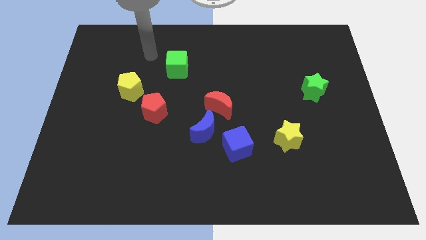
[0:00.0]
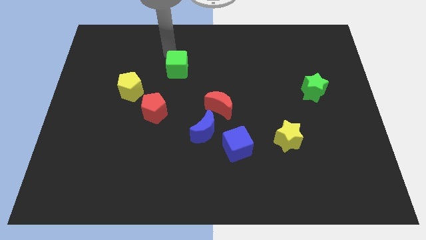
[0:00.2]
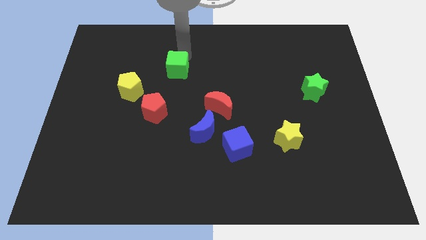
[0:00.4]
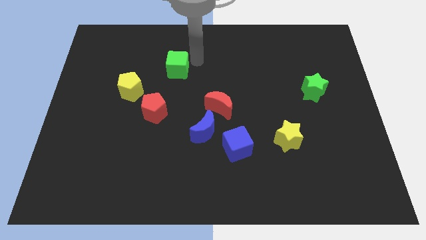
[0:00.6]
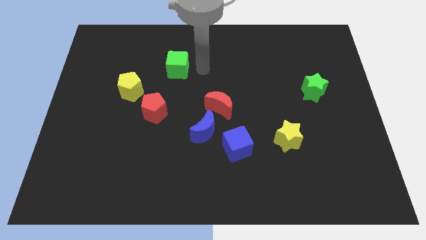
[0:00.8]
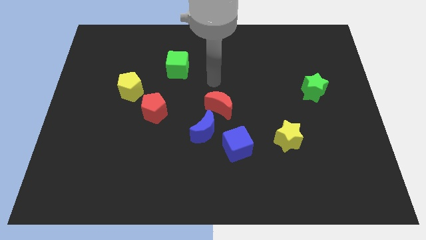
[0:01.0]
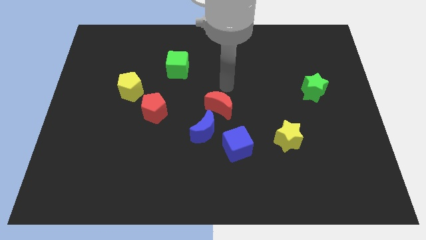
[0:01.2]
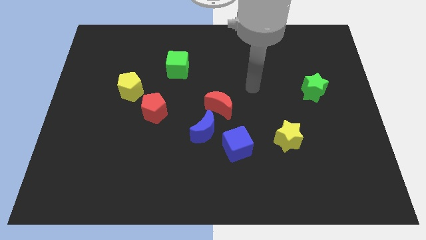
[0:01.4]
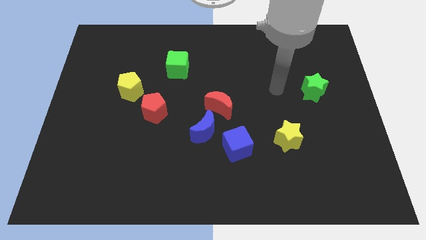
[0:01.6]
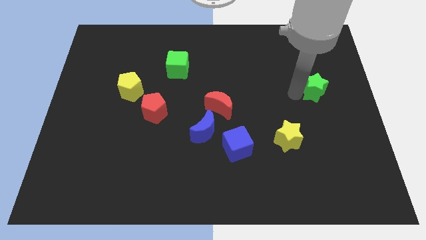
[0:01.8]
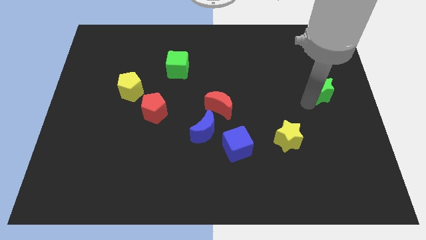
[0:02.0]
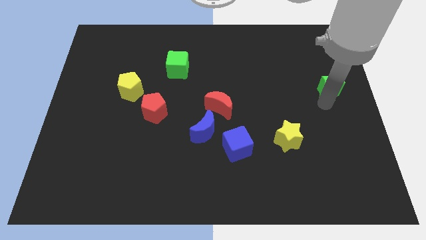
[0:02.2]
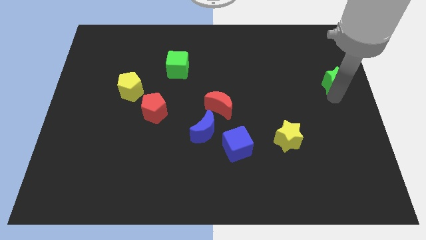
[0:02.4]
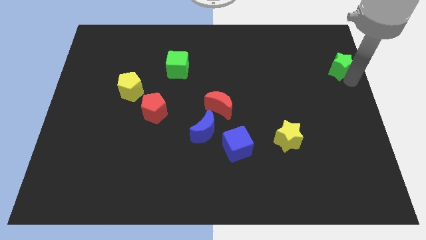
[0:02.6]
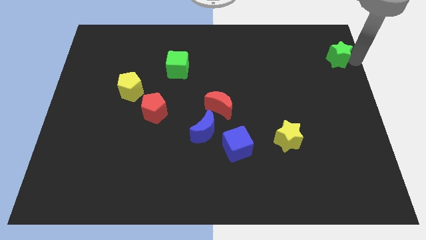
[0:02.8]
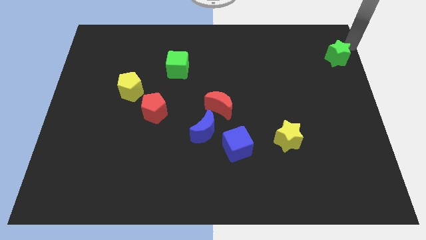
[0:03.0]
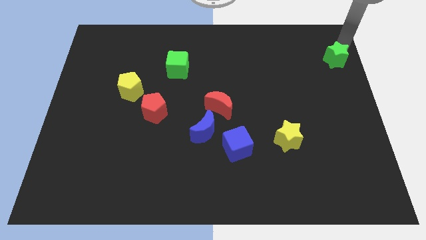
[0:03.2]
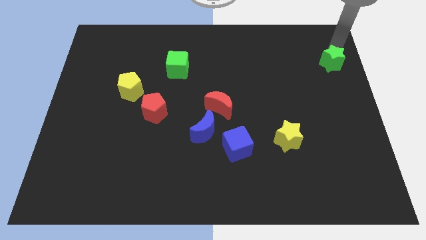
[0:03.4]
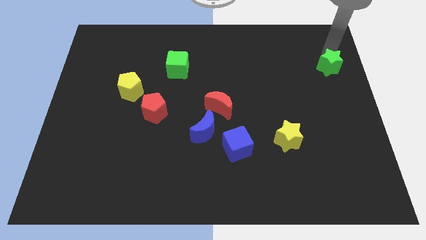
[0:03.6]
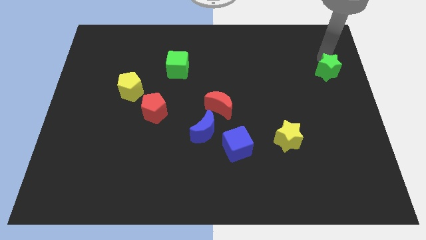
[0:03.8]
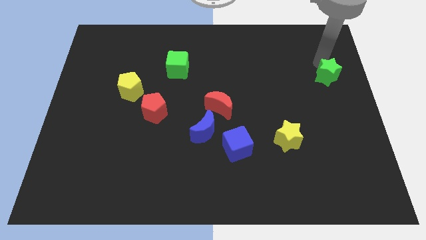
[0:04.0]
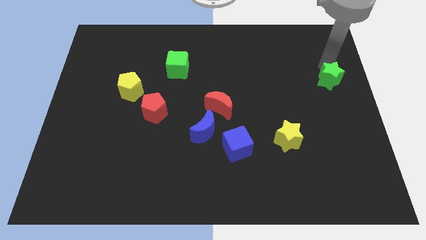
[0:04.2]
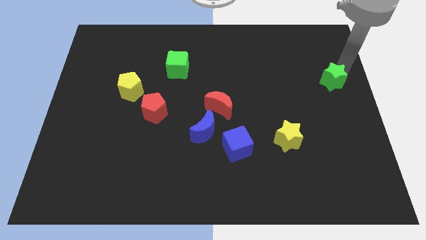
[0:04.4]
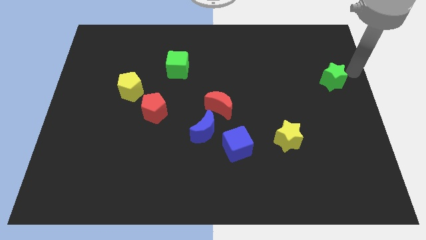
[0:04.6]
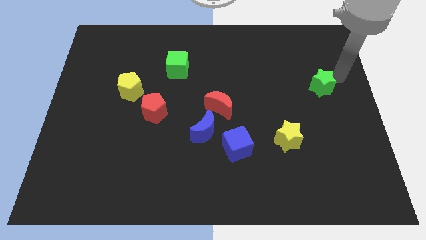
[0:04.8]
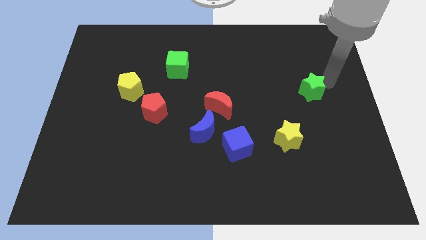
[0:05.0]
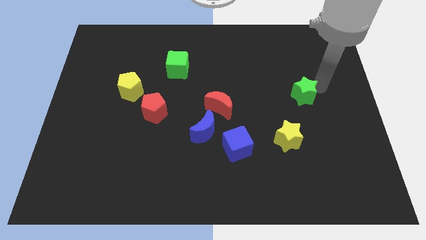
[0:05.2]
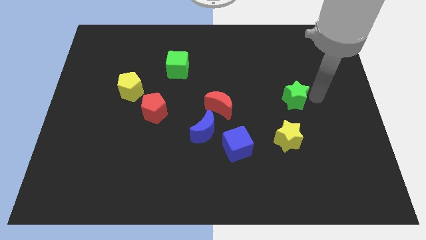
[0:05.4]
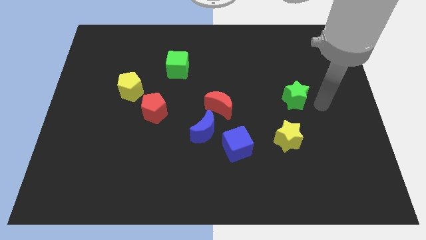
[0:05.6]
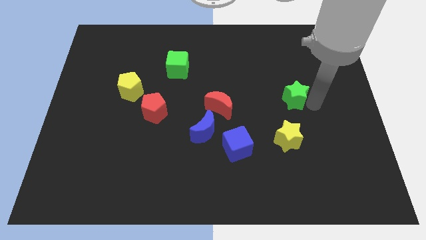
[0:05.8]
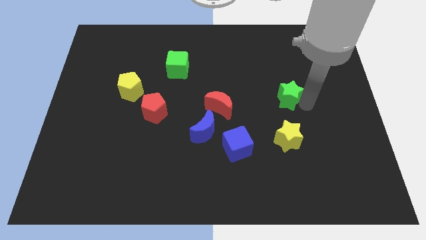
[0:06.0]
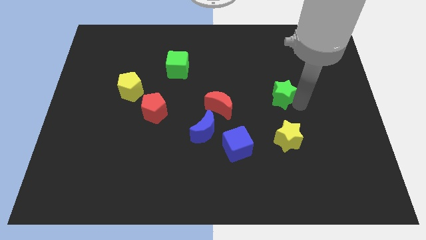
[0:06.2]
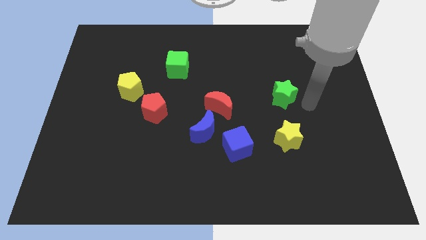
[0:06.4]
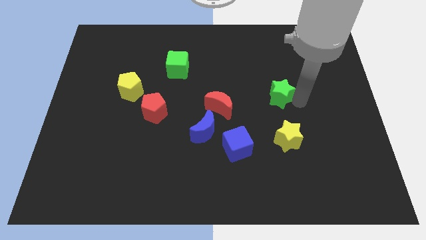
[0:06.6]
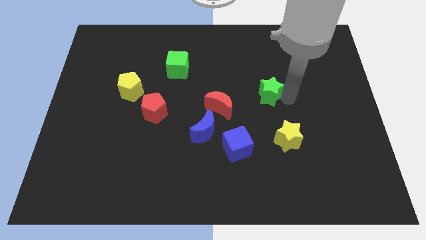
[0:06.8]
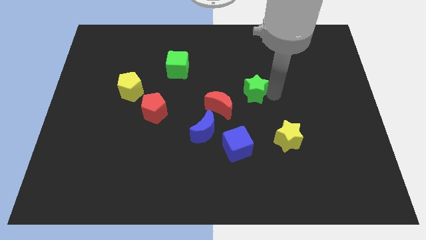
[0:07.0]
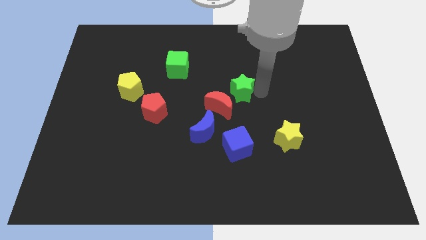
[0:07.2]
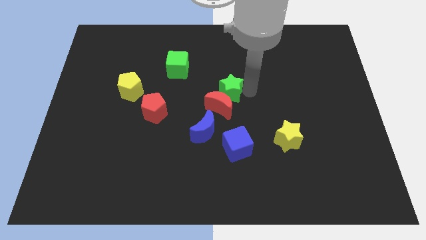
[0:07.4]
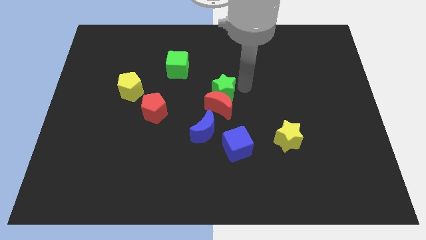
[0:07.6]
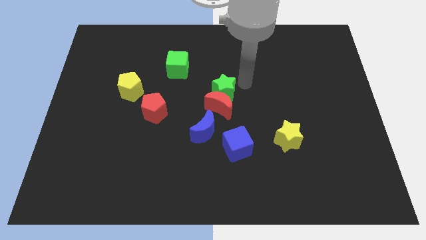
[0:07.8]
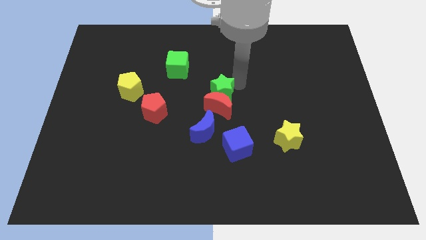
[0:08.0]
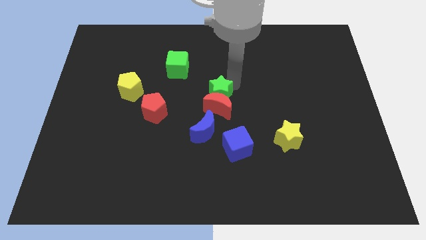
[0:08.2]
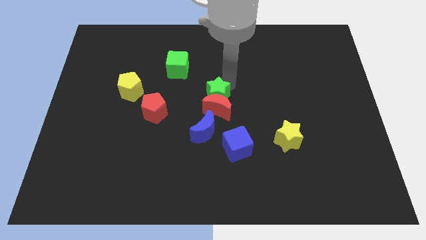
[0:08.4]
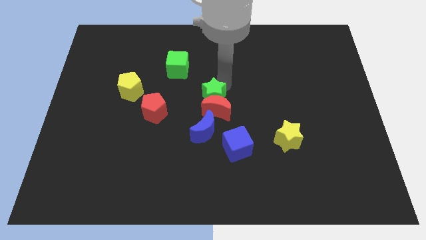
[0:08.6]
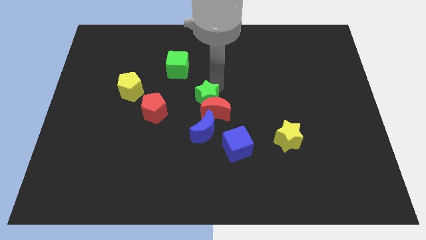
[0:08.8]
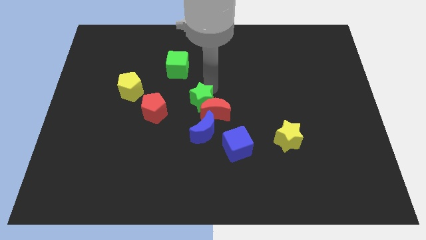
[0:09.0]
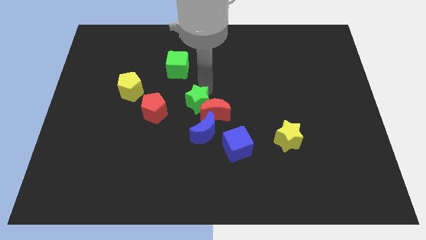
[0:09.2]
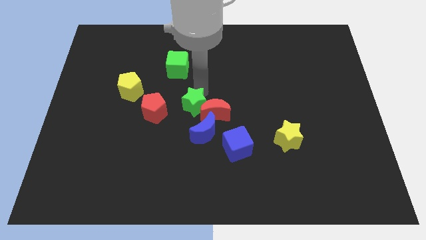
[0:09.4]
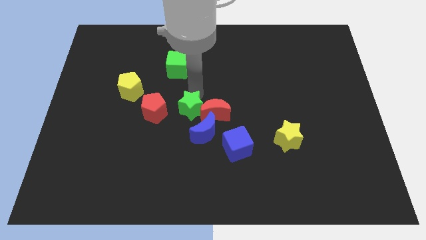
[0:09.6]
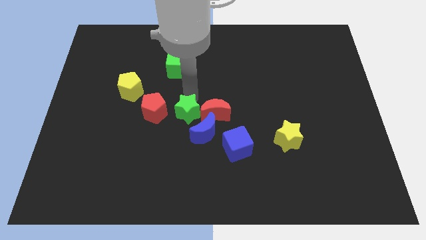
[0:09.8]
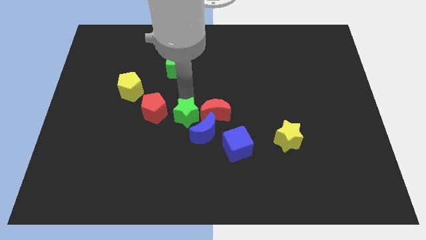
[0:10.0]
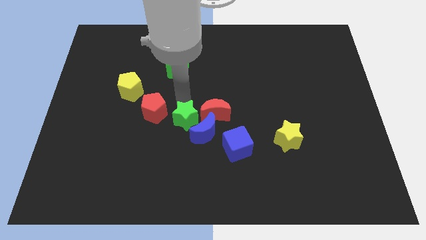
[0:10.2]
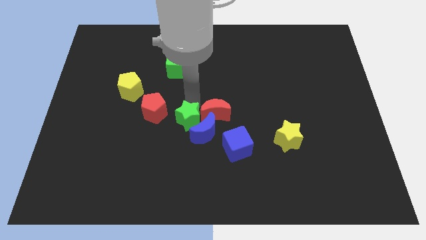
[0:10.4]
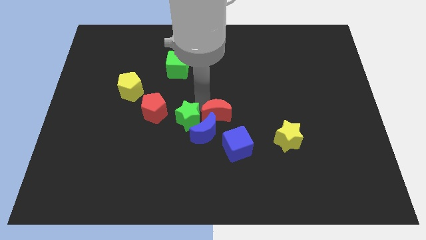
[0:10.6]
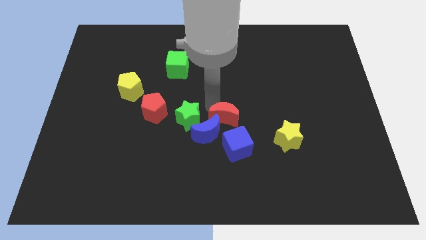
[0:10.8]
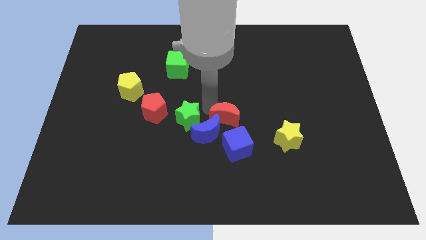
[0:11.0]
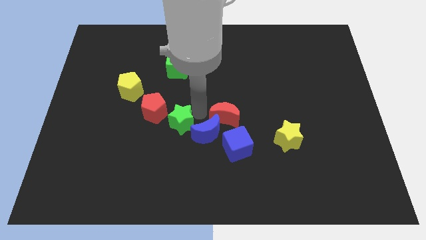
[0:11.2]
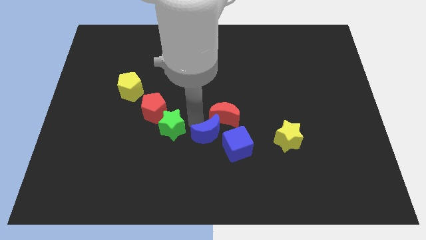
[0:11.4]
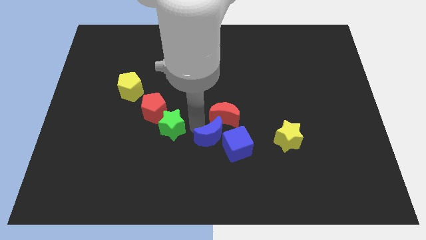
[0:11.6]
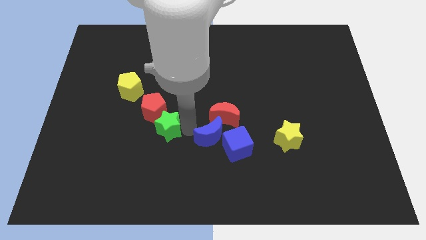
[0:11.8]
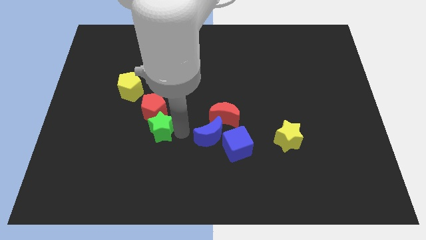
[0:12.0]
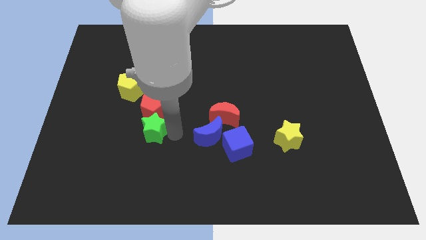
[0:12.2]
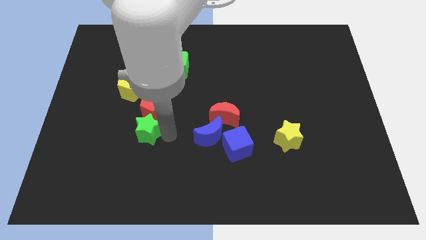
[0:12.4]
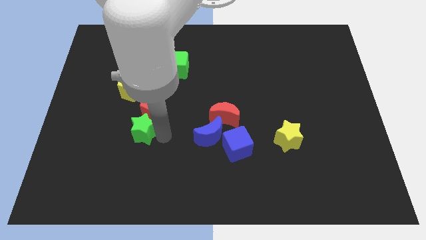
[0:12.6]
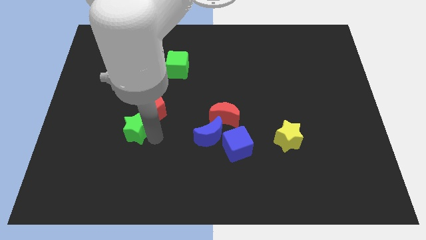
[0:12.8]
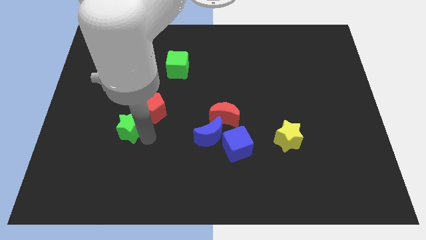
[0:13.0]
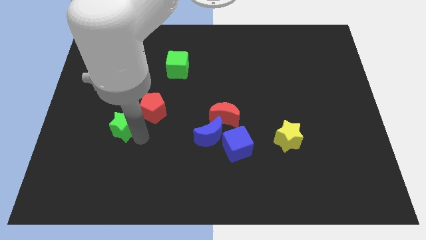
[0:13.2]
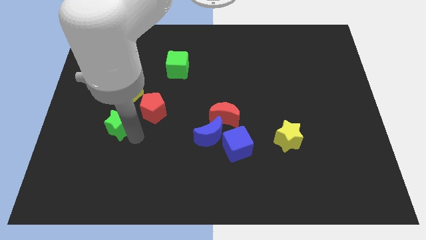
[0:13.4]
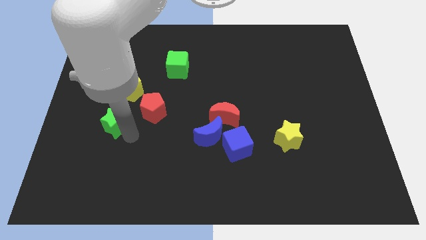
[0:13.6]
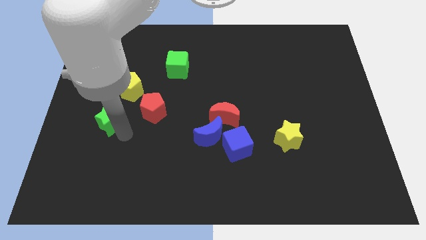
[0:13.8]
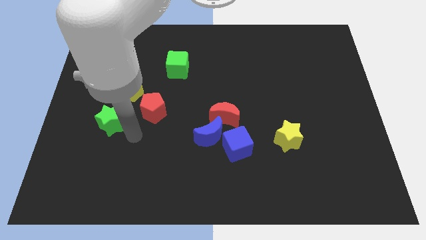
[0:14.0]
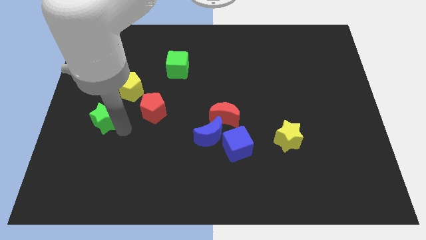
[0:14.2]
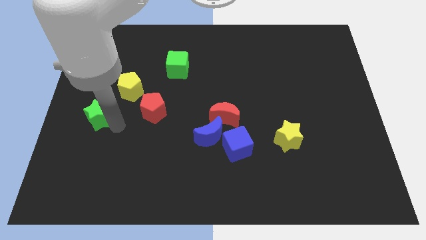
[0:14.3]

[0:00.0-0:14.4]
put the green star to the left side
